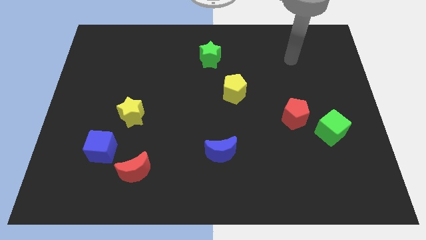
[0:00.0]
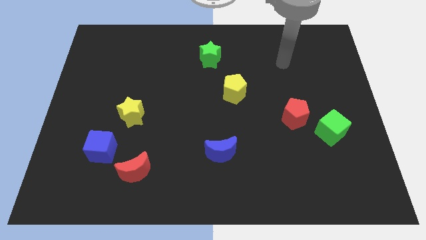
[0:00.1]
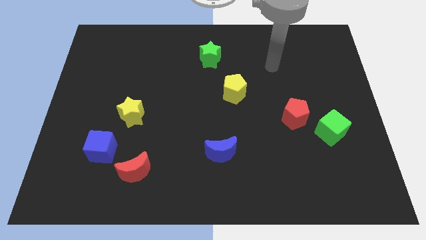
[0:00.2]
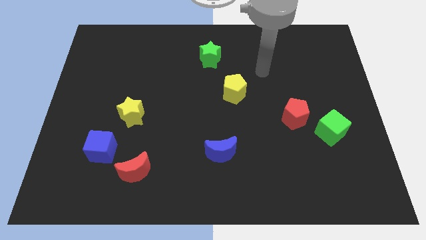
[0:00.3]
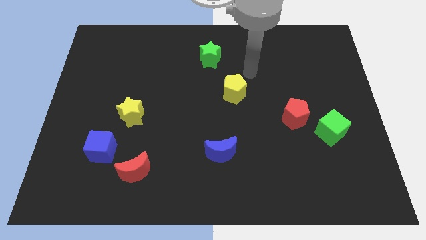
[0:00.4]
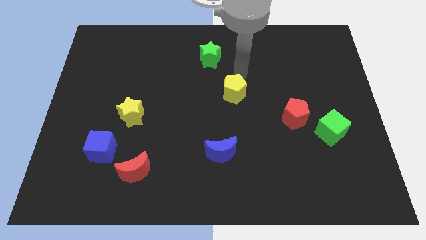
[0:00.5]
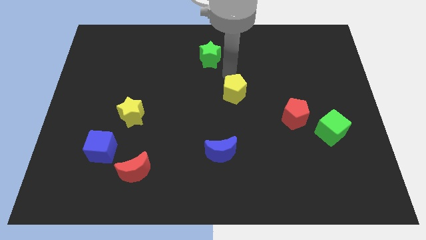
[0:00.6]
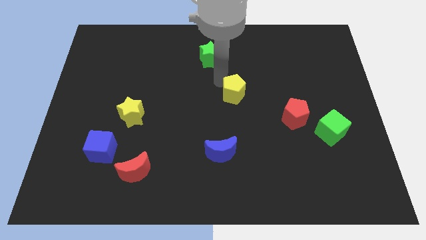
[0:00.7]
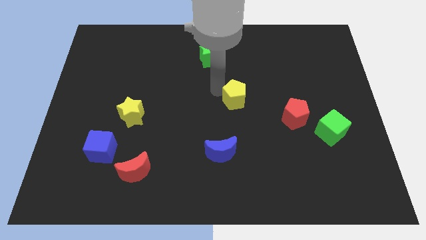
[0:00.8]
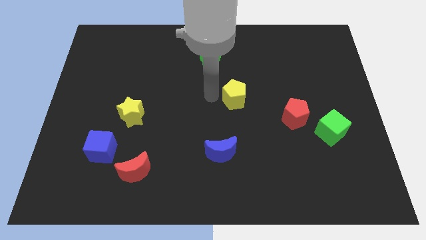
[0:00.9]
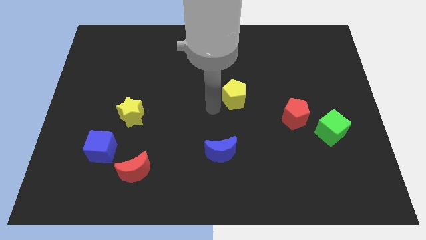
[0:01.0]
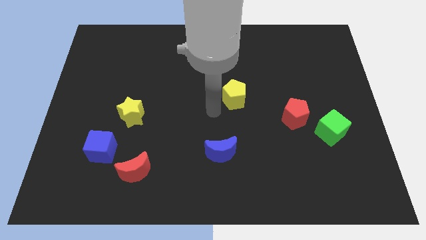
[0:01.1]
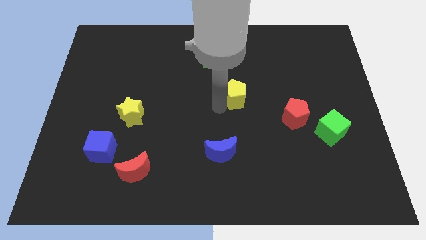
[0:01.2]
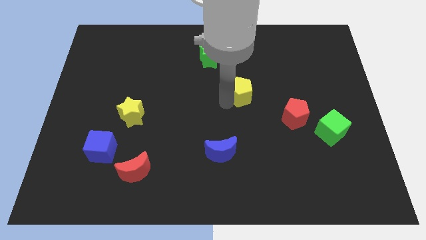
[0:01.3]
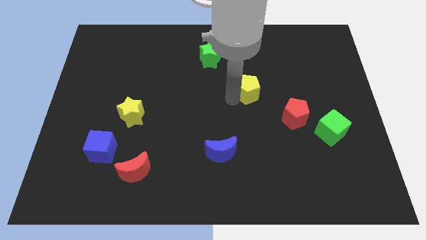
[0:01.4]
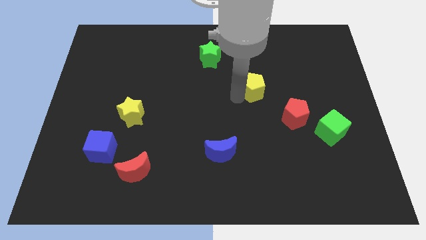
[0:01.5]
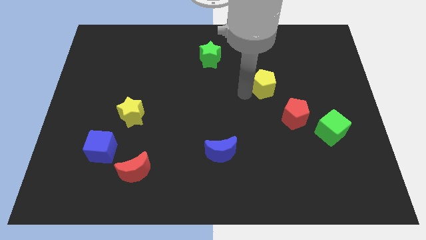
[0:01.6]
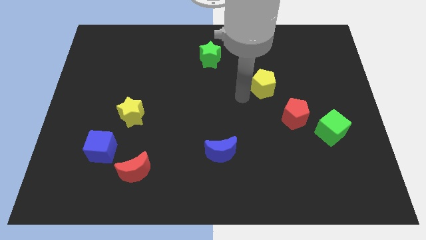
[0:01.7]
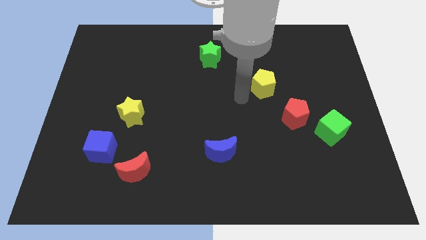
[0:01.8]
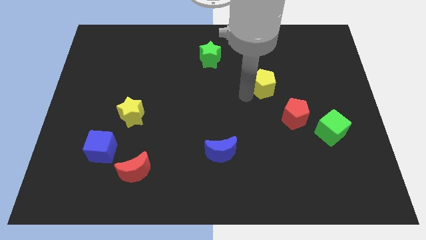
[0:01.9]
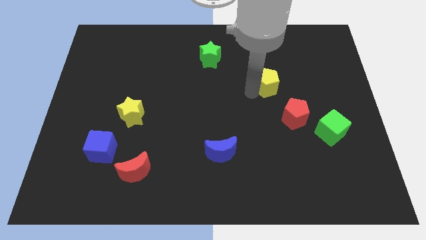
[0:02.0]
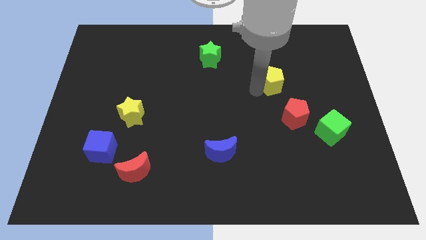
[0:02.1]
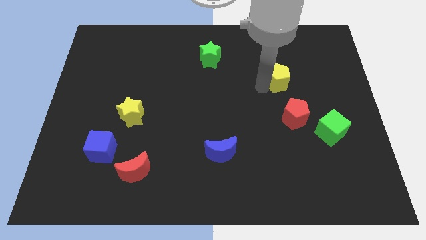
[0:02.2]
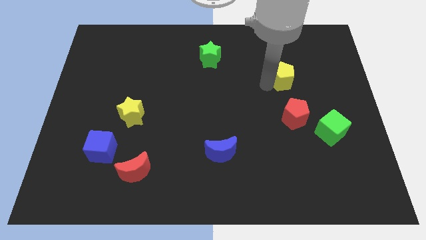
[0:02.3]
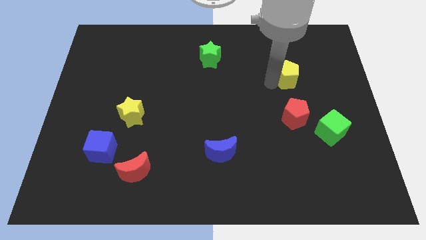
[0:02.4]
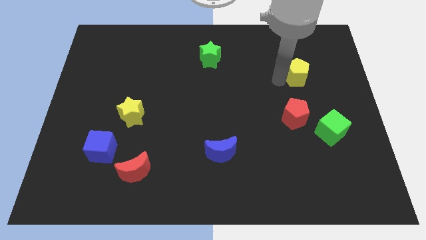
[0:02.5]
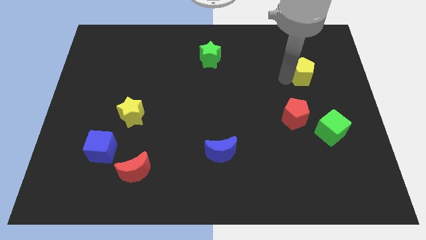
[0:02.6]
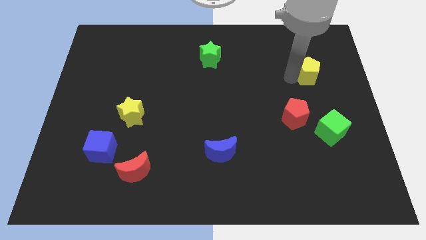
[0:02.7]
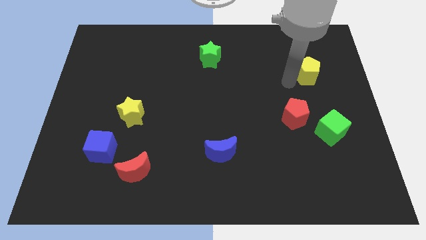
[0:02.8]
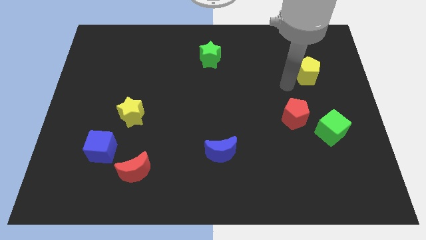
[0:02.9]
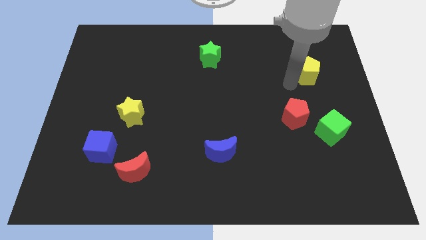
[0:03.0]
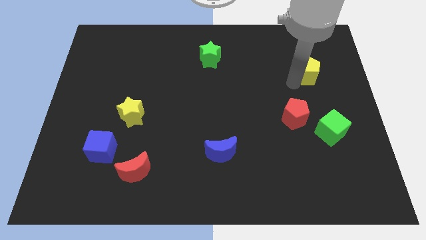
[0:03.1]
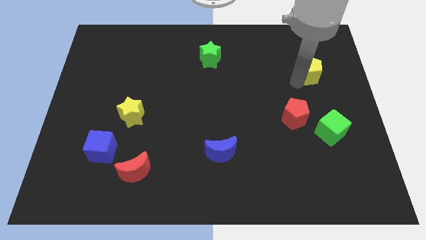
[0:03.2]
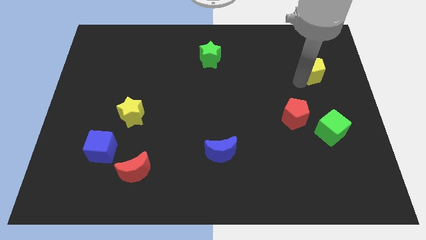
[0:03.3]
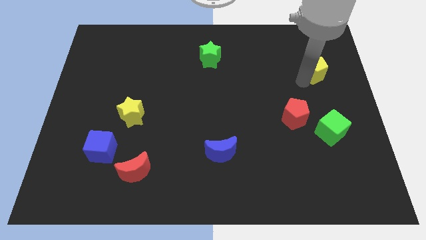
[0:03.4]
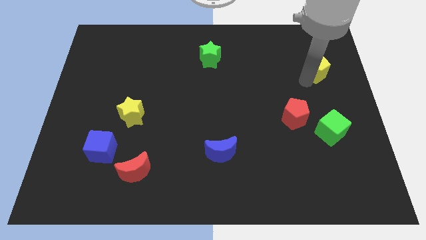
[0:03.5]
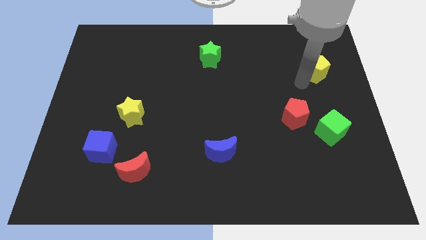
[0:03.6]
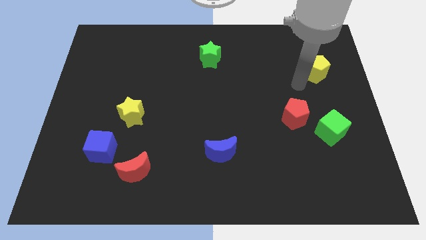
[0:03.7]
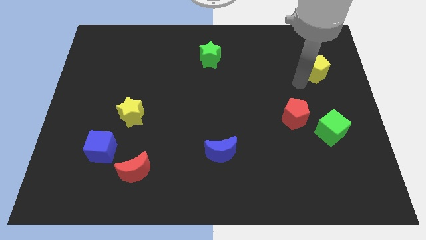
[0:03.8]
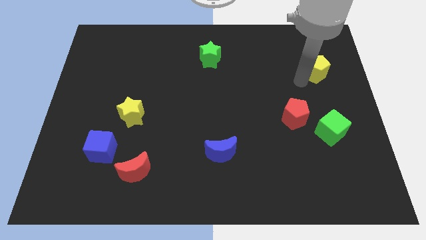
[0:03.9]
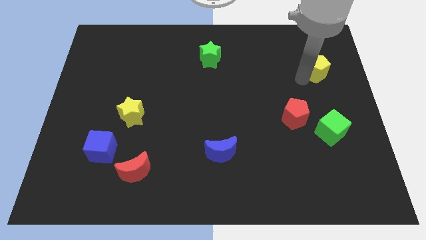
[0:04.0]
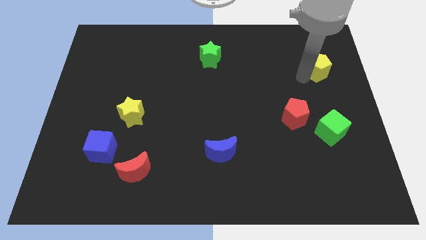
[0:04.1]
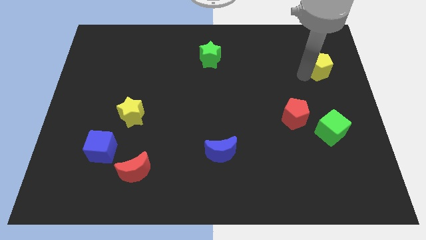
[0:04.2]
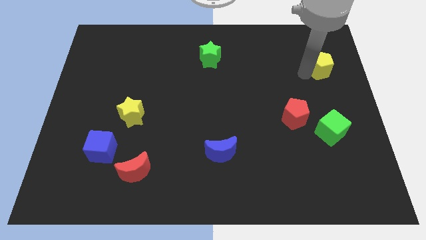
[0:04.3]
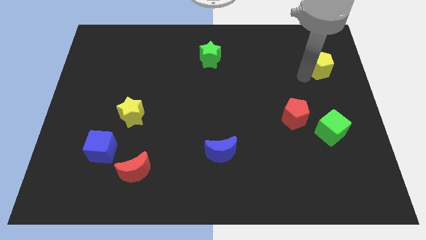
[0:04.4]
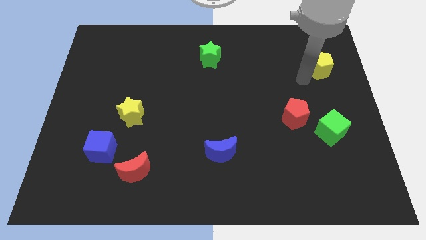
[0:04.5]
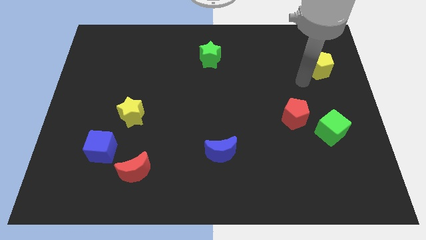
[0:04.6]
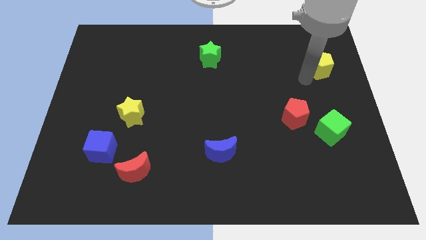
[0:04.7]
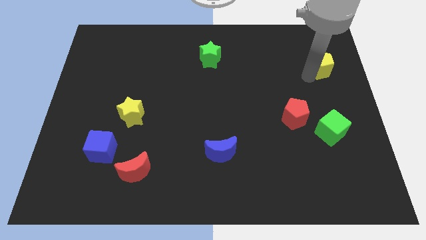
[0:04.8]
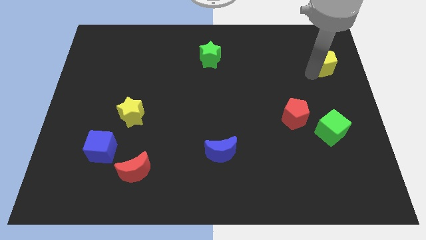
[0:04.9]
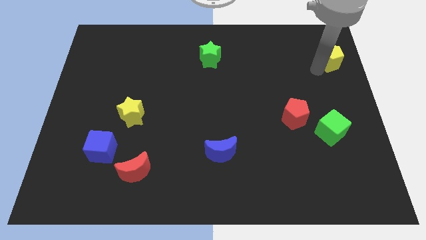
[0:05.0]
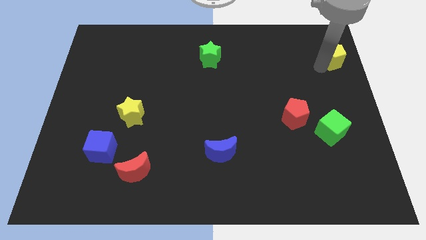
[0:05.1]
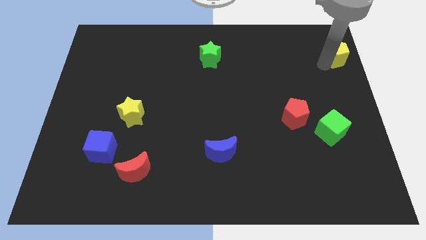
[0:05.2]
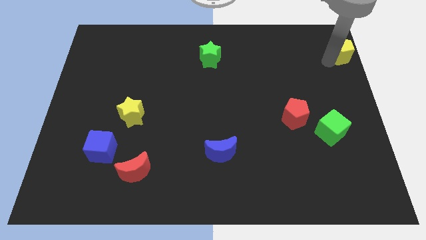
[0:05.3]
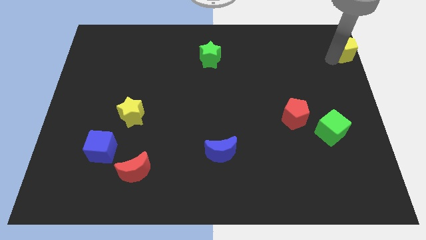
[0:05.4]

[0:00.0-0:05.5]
put the yellow pentagon to the top right of the board

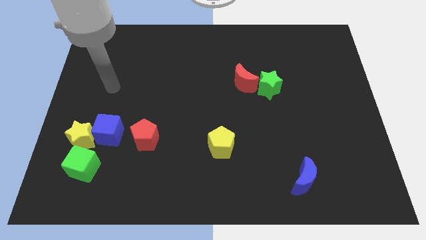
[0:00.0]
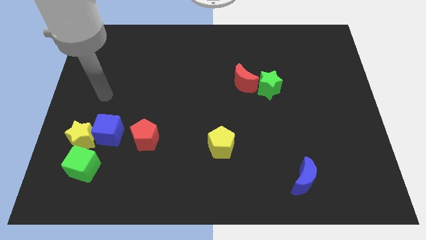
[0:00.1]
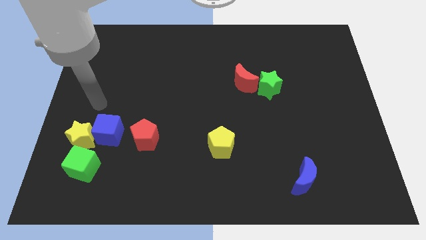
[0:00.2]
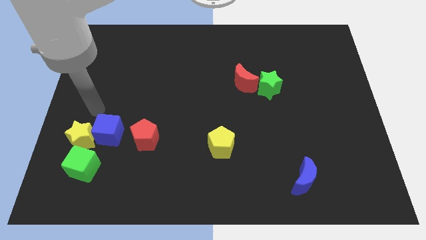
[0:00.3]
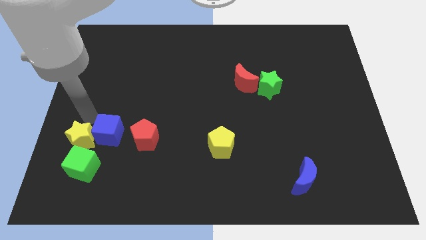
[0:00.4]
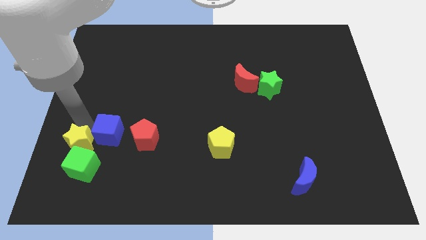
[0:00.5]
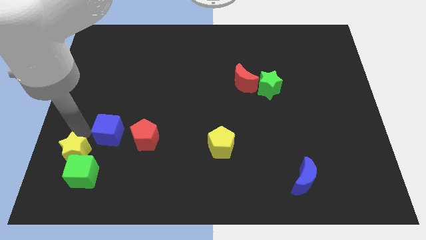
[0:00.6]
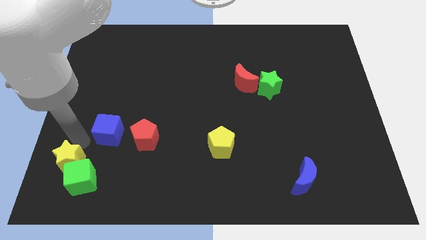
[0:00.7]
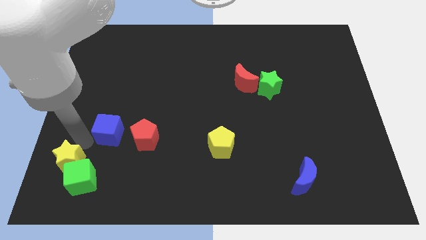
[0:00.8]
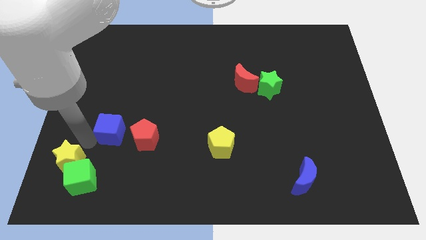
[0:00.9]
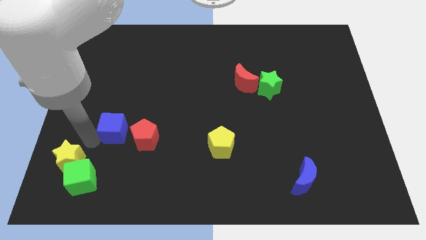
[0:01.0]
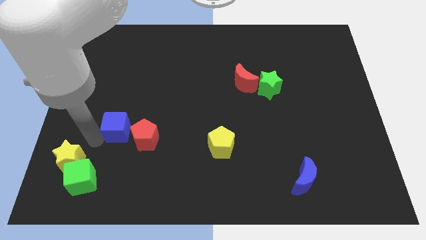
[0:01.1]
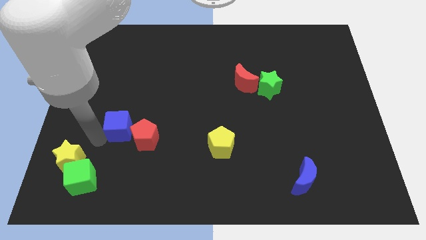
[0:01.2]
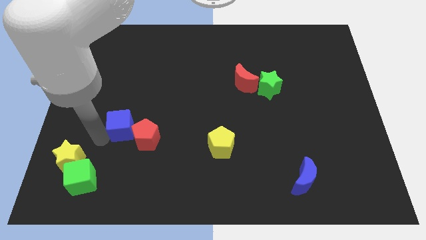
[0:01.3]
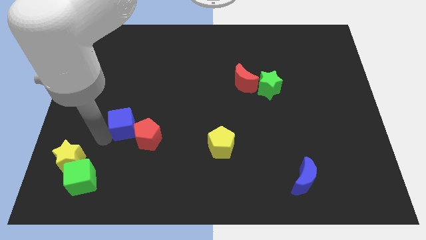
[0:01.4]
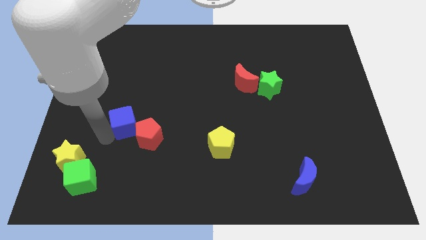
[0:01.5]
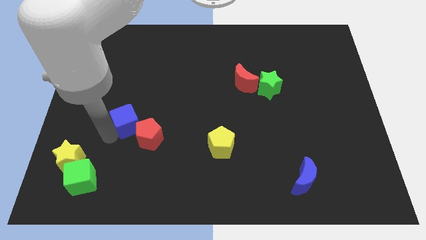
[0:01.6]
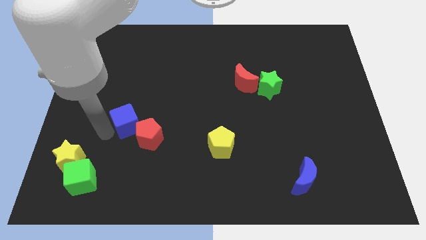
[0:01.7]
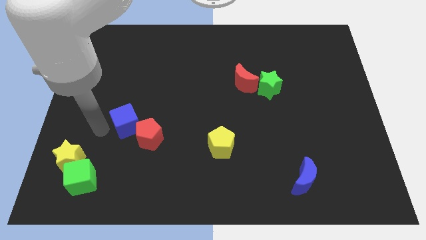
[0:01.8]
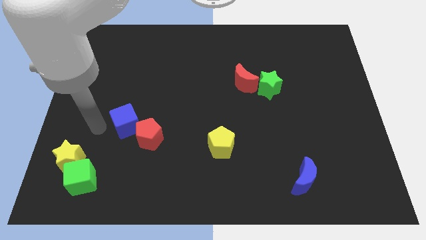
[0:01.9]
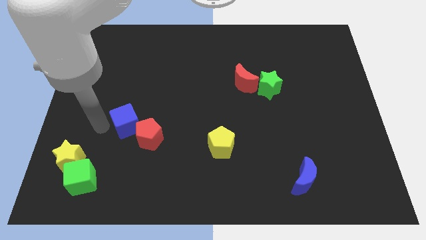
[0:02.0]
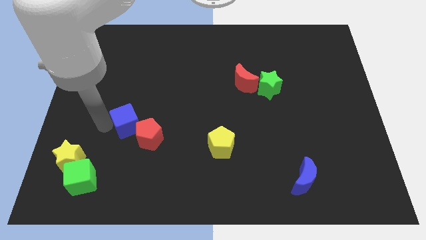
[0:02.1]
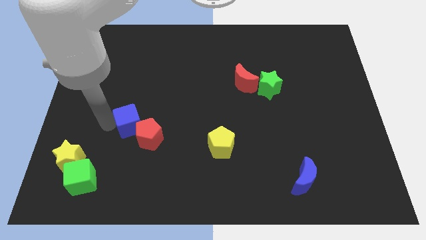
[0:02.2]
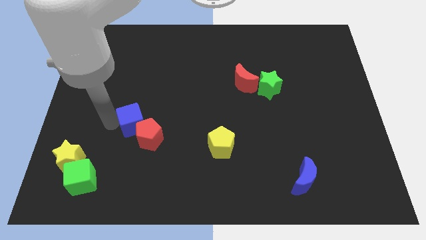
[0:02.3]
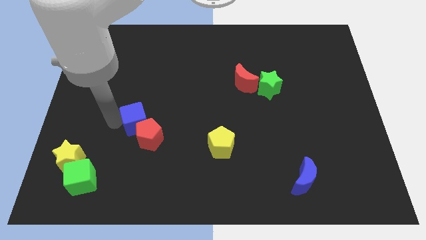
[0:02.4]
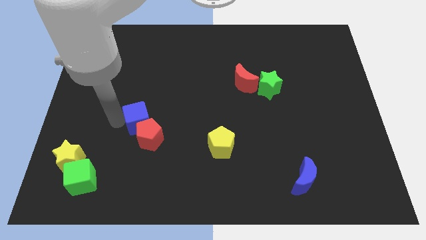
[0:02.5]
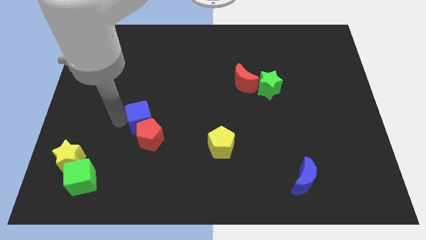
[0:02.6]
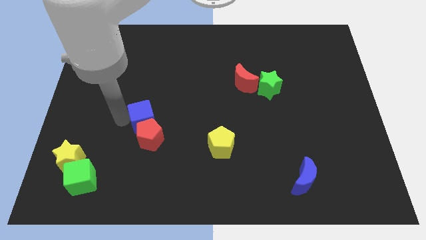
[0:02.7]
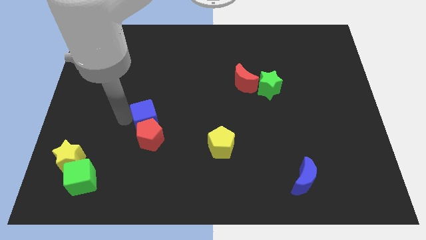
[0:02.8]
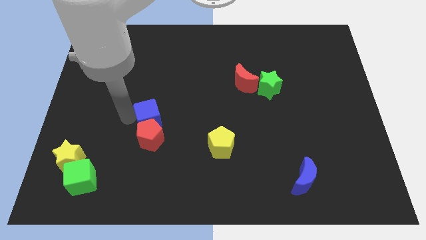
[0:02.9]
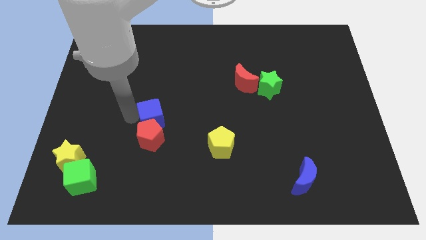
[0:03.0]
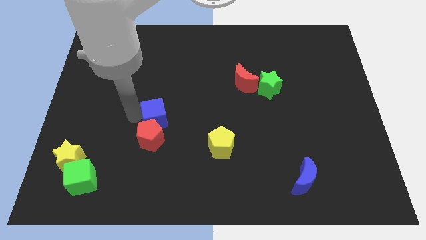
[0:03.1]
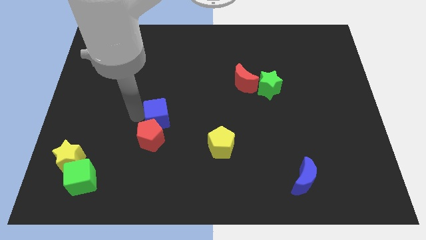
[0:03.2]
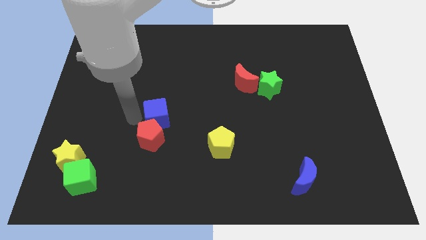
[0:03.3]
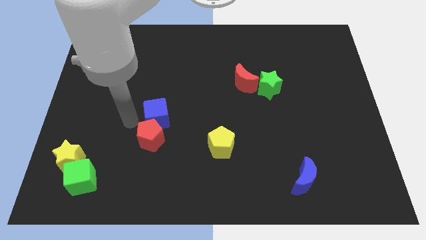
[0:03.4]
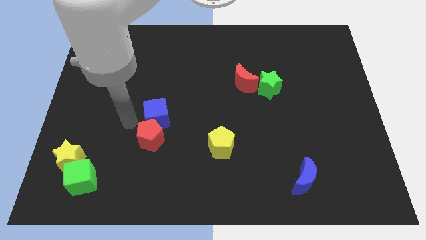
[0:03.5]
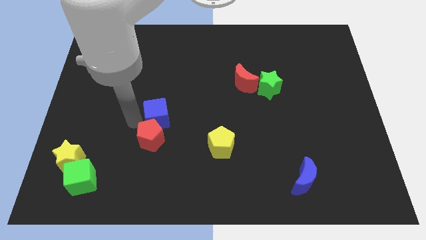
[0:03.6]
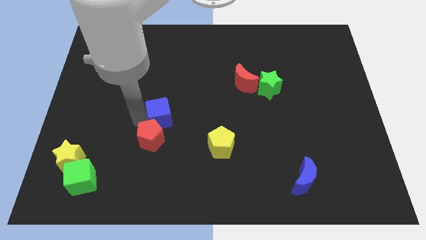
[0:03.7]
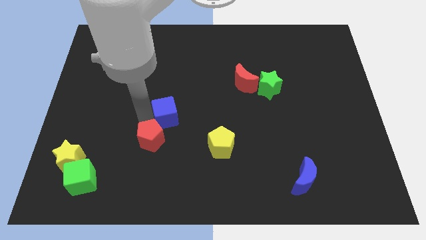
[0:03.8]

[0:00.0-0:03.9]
push the blue cube to the middle
